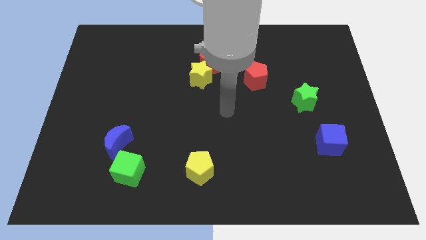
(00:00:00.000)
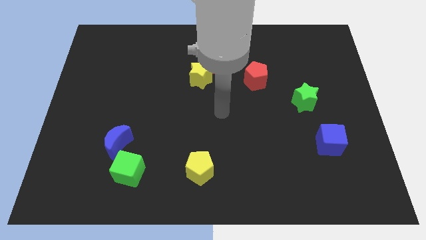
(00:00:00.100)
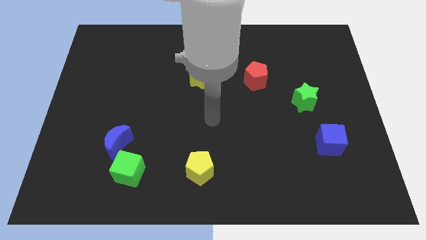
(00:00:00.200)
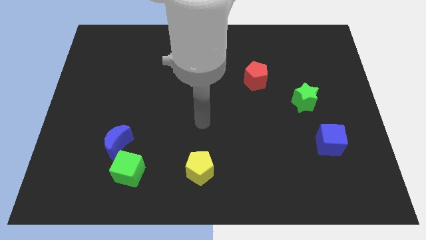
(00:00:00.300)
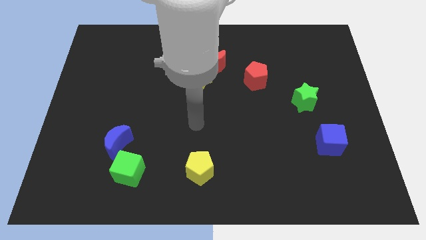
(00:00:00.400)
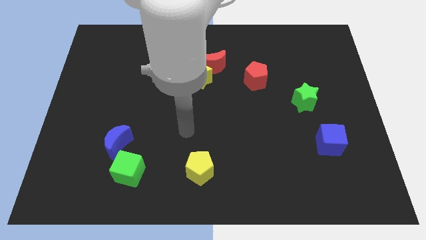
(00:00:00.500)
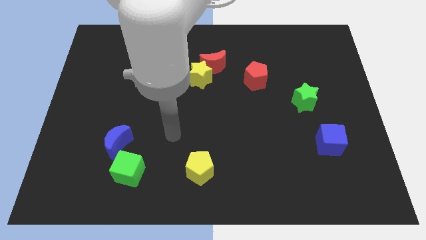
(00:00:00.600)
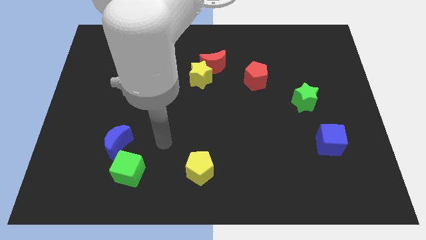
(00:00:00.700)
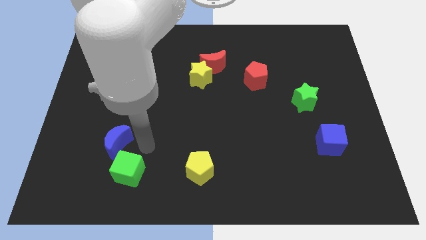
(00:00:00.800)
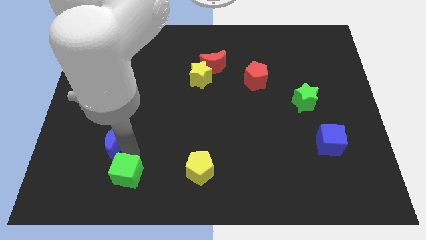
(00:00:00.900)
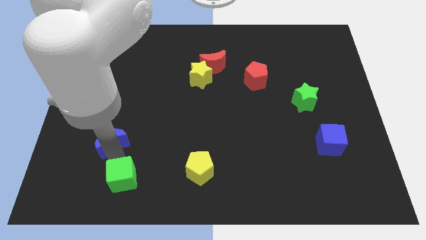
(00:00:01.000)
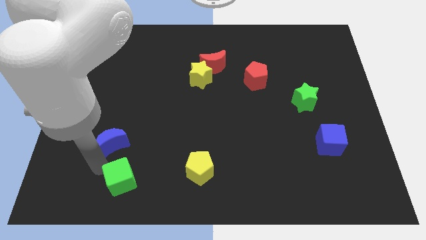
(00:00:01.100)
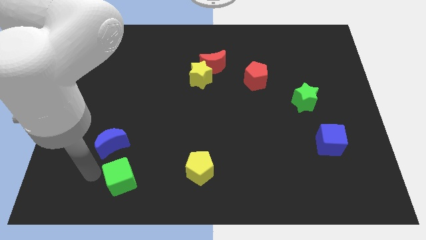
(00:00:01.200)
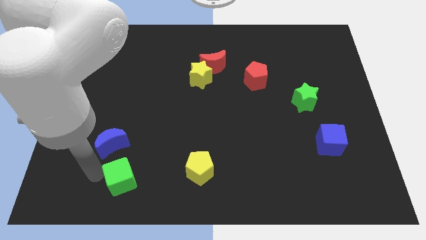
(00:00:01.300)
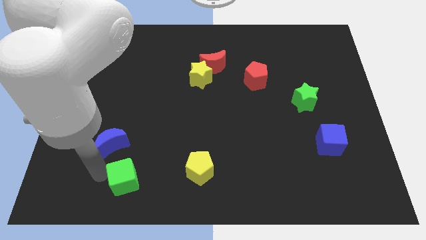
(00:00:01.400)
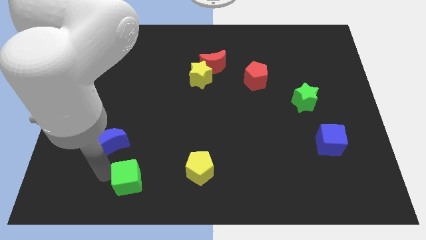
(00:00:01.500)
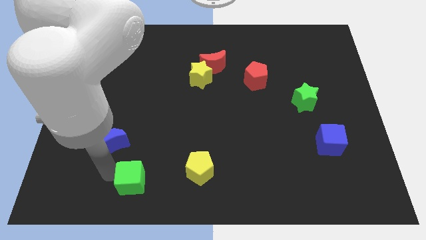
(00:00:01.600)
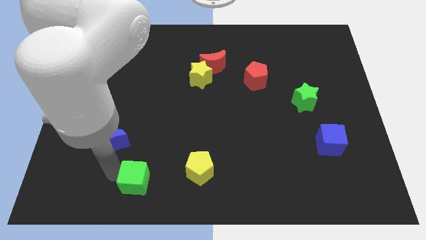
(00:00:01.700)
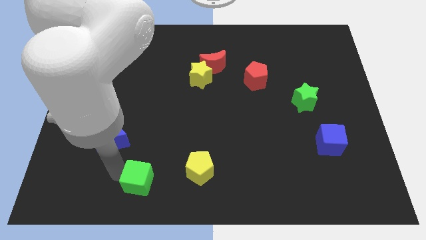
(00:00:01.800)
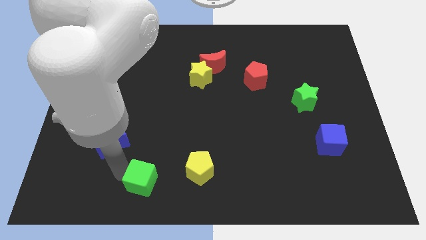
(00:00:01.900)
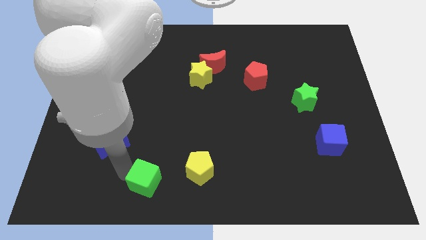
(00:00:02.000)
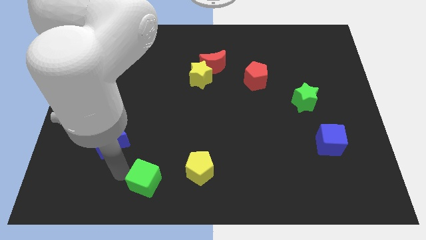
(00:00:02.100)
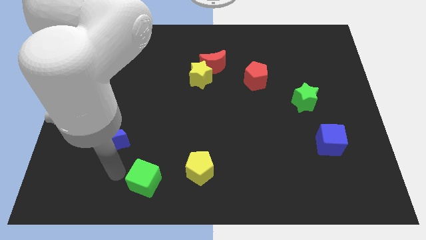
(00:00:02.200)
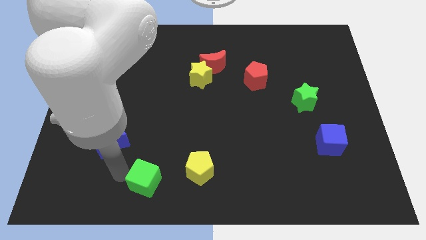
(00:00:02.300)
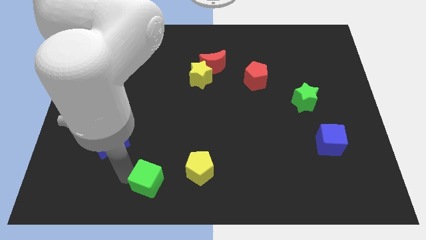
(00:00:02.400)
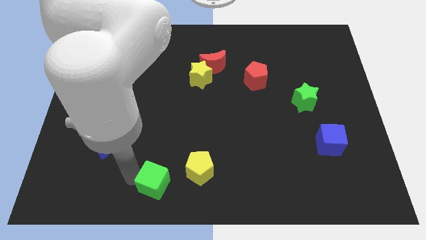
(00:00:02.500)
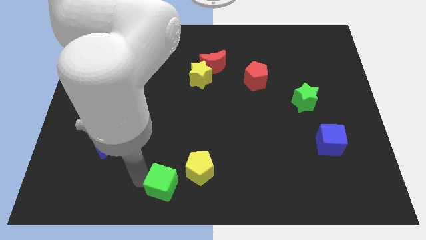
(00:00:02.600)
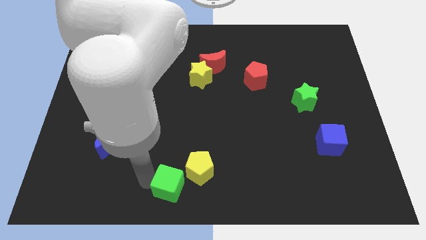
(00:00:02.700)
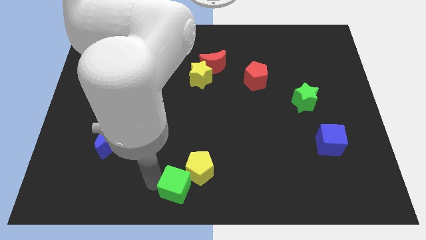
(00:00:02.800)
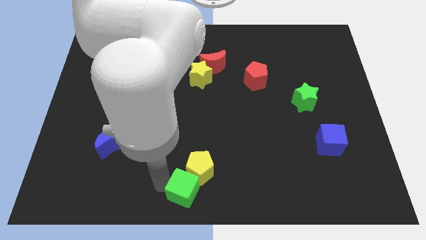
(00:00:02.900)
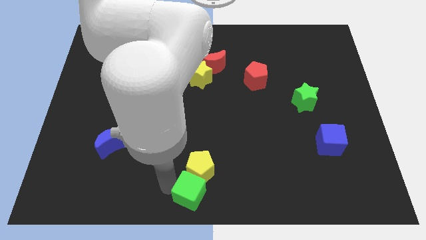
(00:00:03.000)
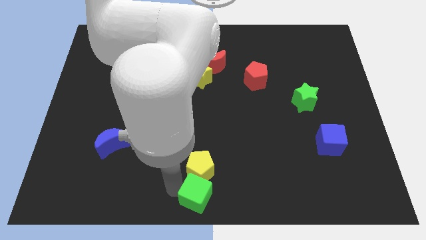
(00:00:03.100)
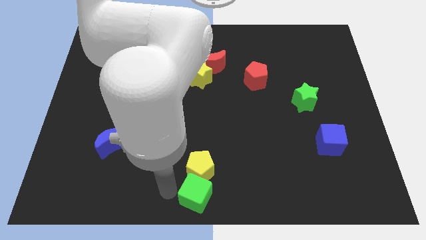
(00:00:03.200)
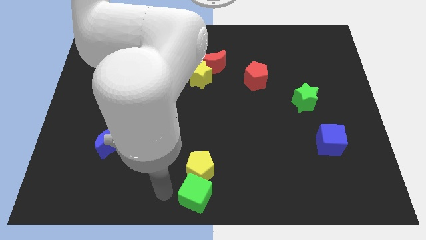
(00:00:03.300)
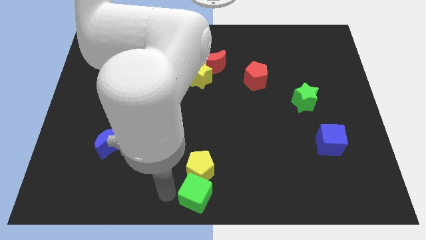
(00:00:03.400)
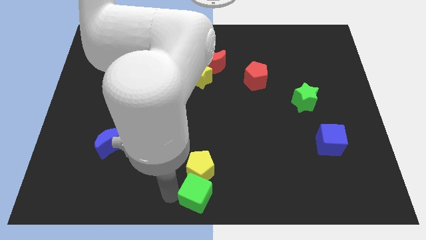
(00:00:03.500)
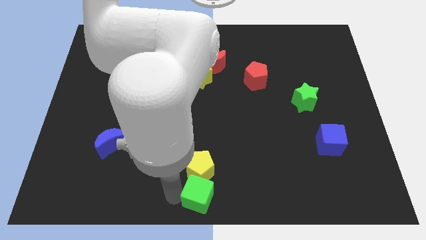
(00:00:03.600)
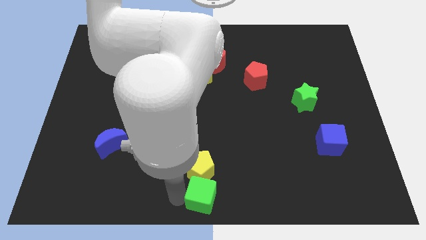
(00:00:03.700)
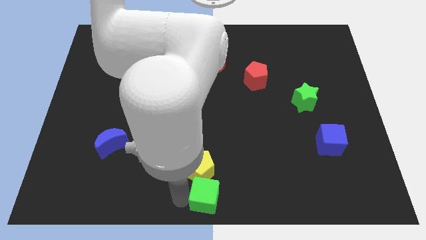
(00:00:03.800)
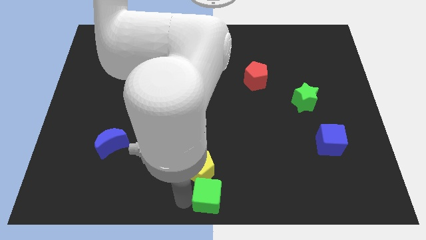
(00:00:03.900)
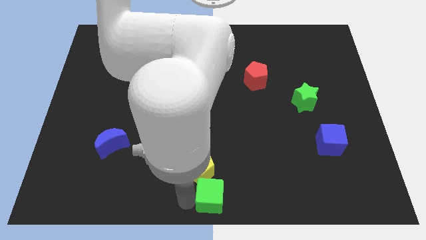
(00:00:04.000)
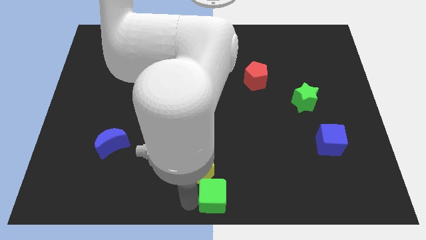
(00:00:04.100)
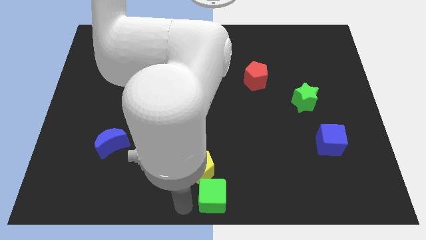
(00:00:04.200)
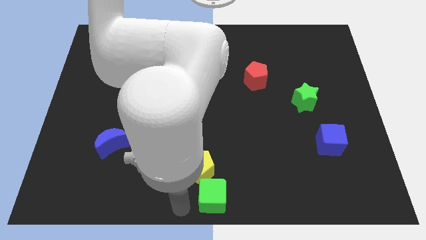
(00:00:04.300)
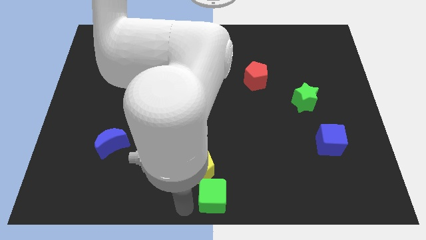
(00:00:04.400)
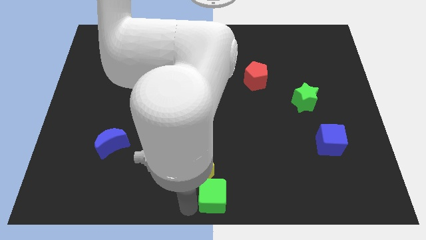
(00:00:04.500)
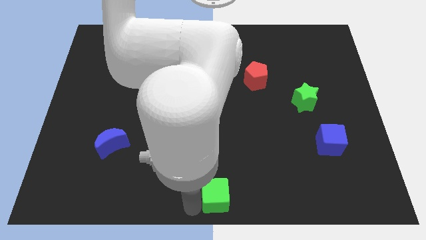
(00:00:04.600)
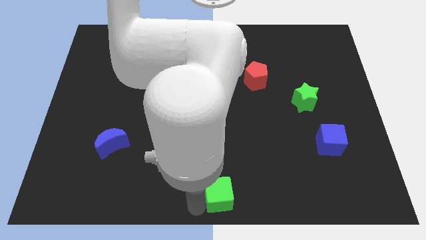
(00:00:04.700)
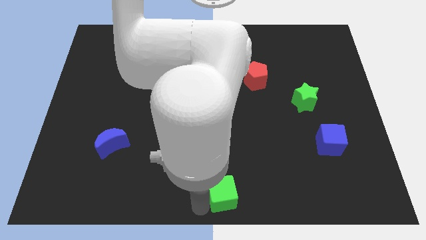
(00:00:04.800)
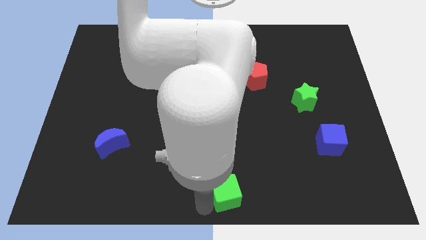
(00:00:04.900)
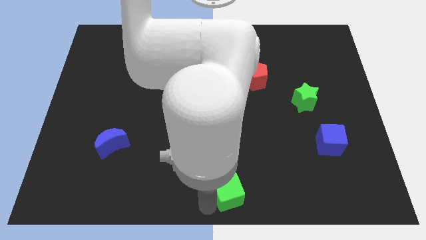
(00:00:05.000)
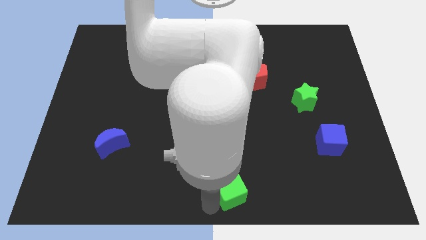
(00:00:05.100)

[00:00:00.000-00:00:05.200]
slide the green cube right

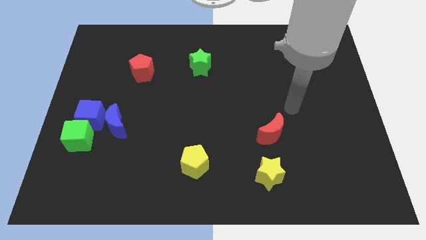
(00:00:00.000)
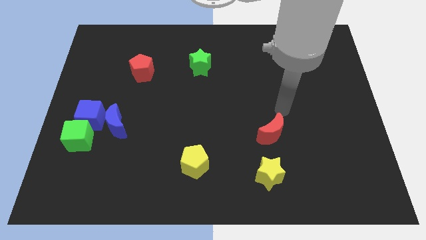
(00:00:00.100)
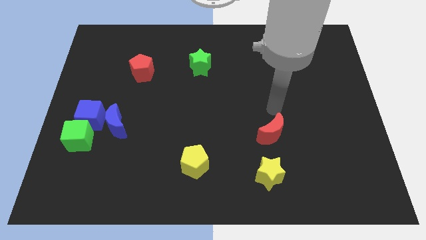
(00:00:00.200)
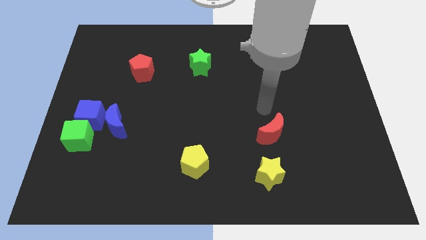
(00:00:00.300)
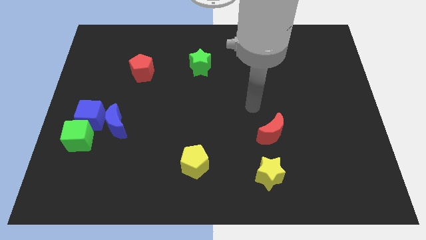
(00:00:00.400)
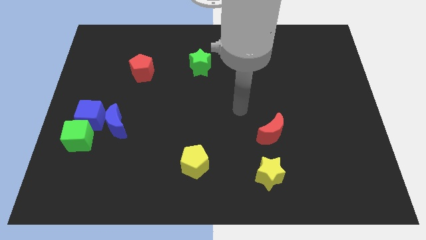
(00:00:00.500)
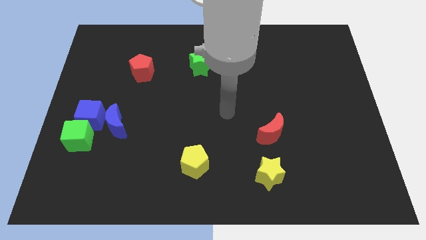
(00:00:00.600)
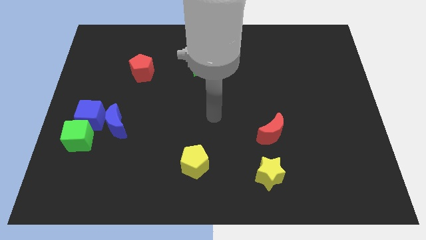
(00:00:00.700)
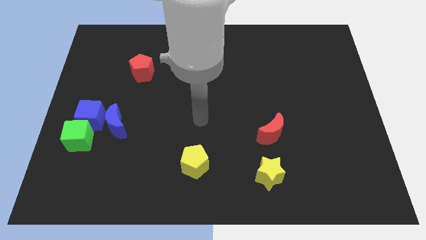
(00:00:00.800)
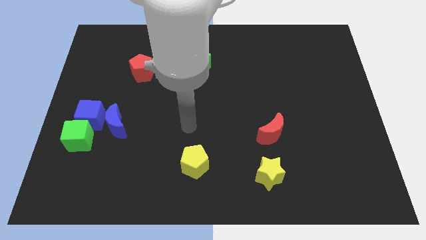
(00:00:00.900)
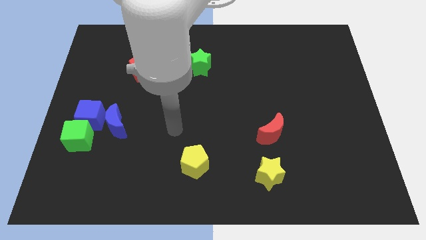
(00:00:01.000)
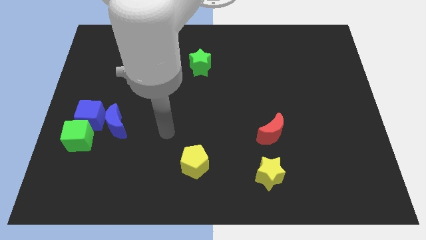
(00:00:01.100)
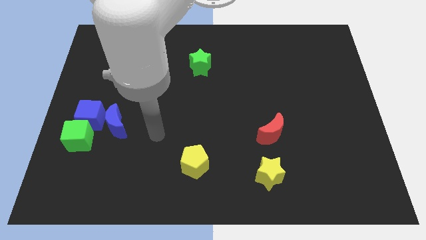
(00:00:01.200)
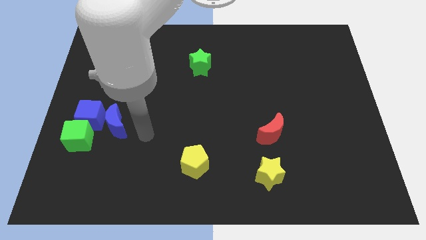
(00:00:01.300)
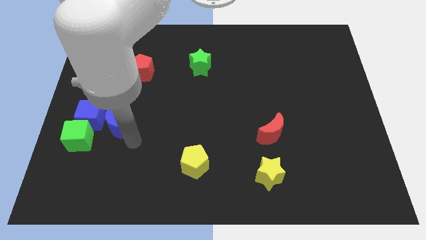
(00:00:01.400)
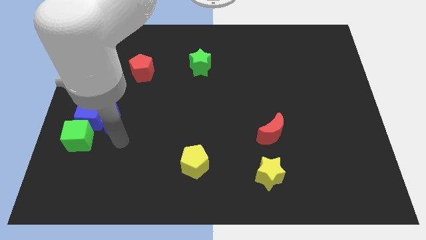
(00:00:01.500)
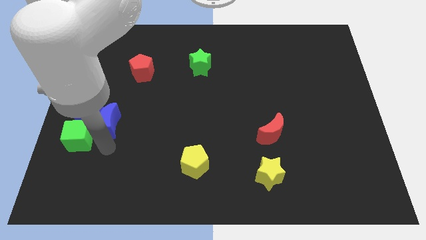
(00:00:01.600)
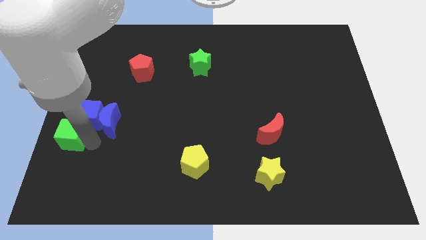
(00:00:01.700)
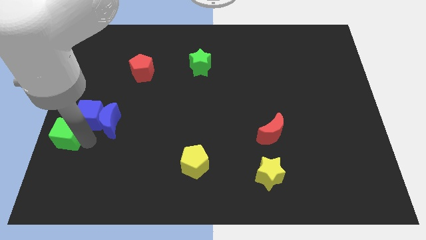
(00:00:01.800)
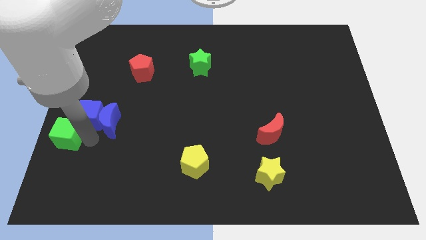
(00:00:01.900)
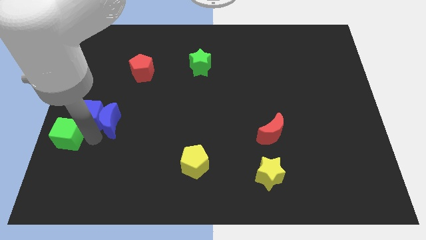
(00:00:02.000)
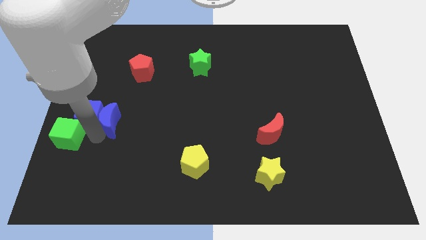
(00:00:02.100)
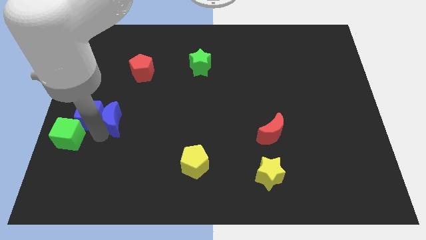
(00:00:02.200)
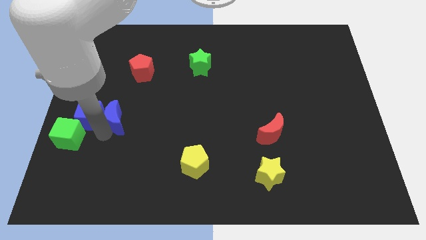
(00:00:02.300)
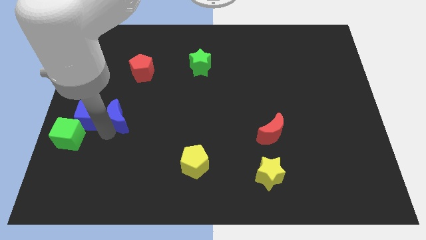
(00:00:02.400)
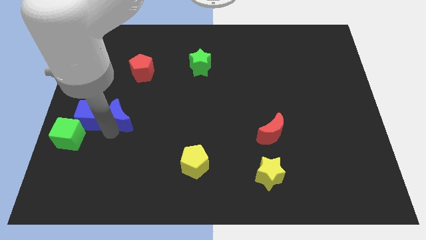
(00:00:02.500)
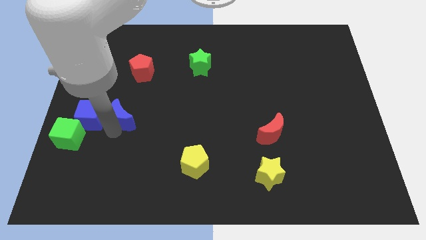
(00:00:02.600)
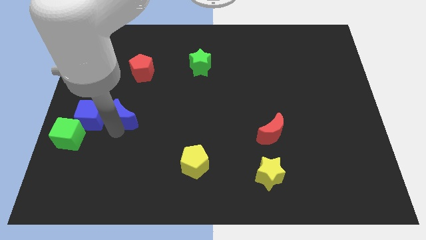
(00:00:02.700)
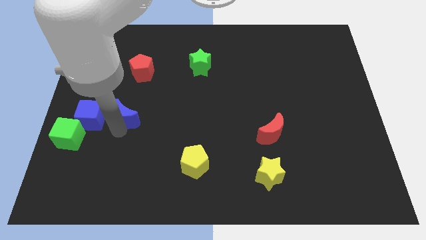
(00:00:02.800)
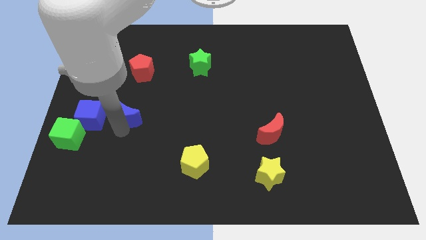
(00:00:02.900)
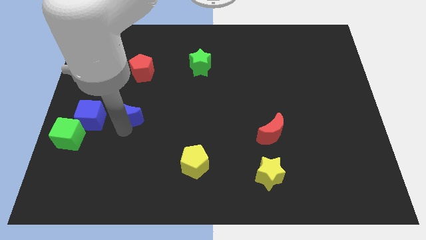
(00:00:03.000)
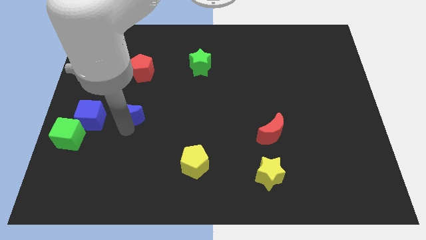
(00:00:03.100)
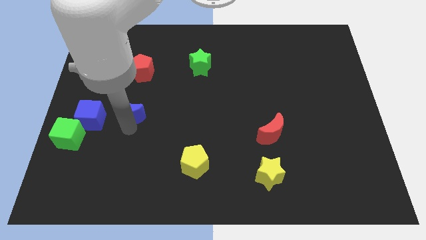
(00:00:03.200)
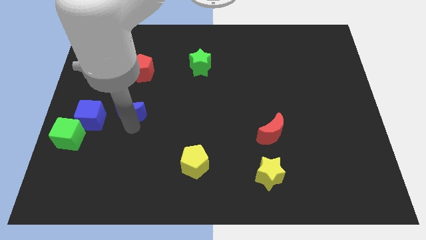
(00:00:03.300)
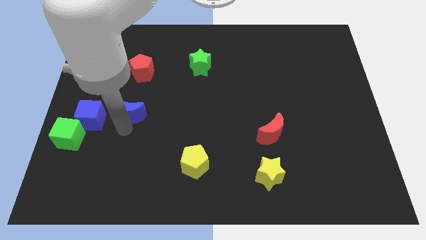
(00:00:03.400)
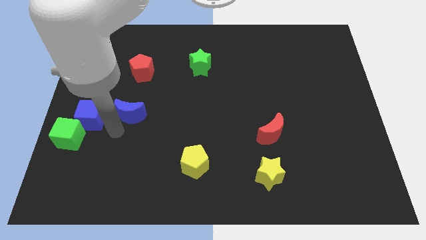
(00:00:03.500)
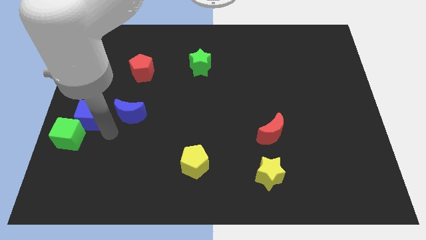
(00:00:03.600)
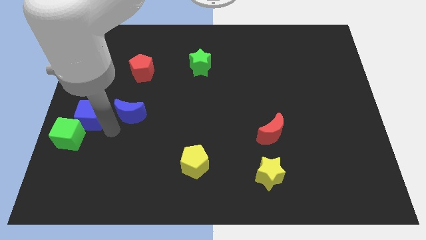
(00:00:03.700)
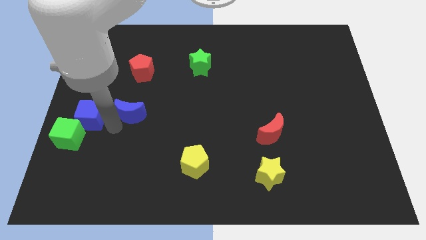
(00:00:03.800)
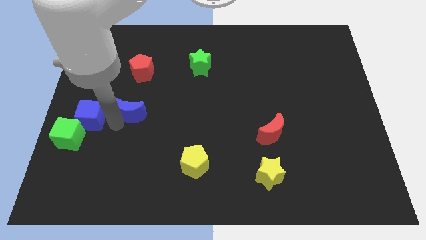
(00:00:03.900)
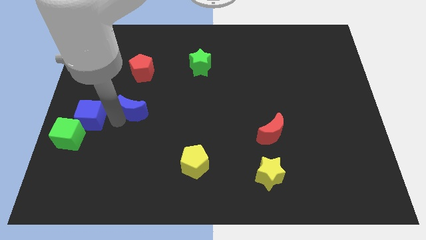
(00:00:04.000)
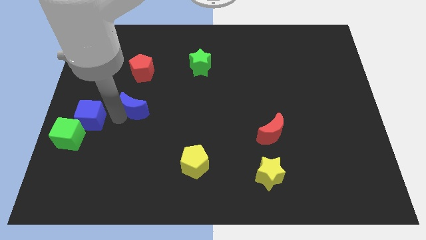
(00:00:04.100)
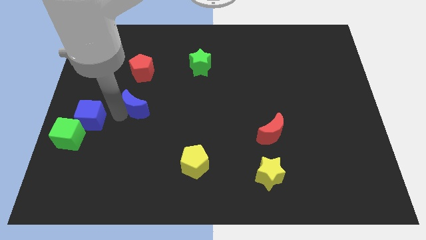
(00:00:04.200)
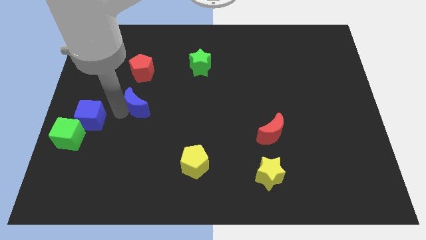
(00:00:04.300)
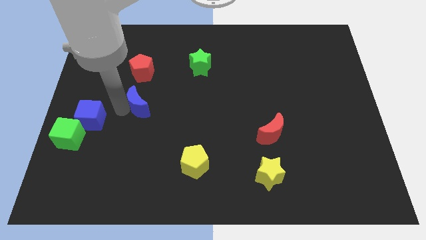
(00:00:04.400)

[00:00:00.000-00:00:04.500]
slightly push the blue moon upwards and to the right
